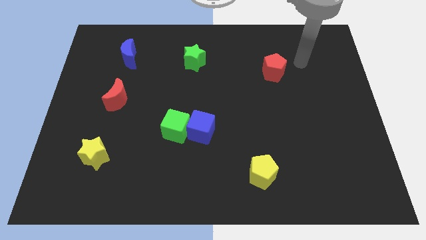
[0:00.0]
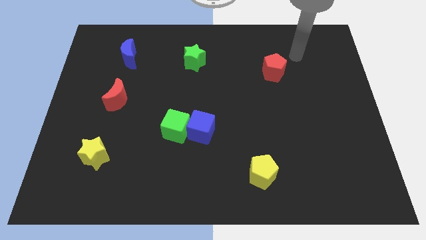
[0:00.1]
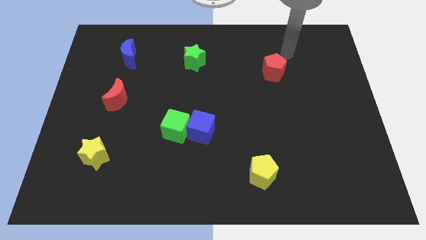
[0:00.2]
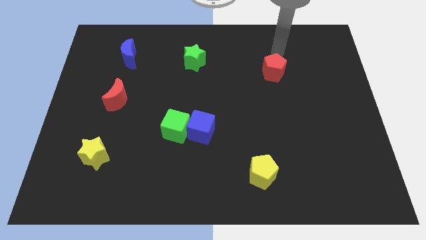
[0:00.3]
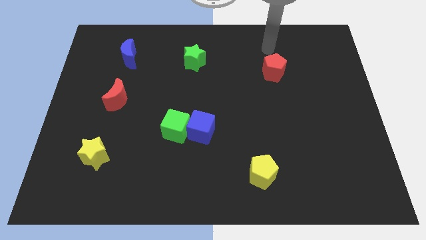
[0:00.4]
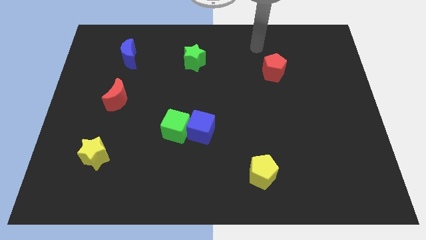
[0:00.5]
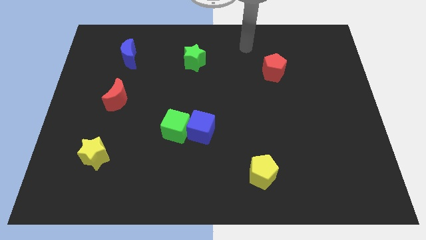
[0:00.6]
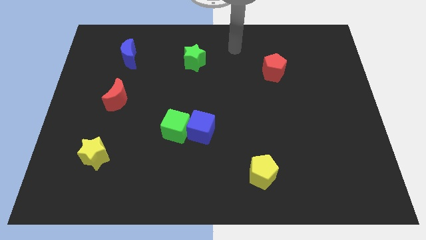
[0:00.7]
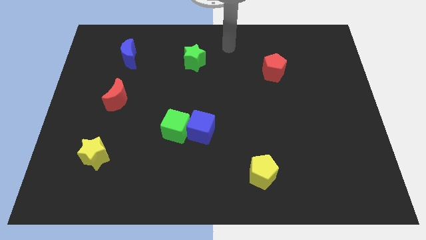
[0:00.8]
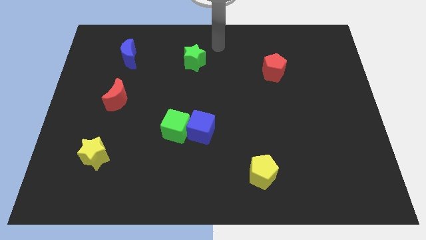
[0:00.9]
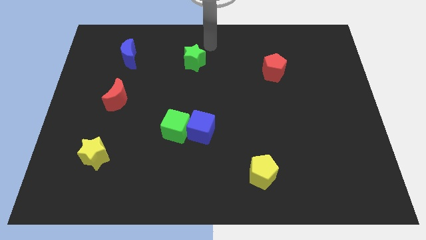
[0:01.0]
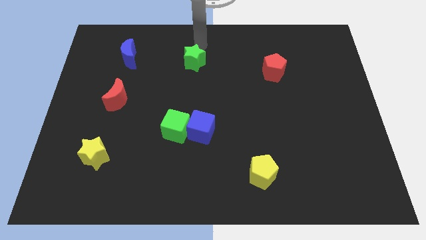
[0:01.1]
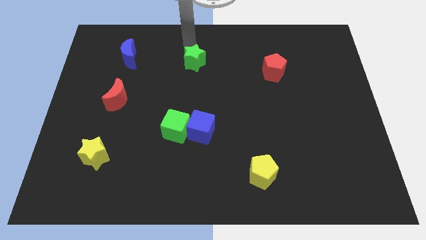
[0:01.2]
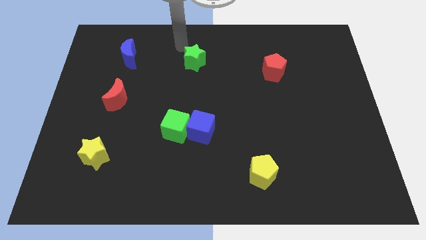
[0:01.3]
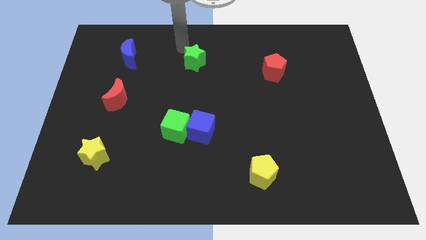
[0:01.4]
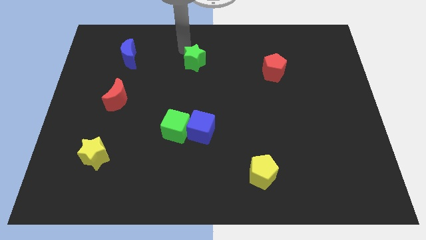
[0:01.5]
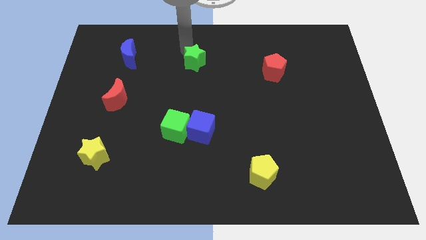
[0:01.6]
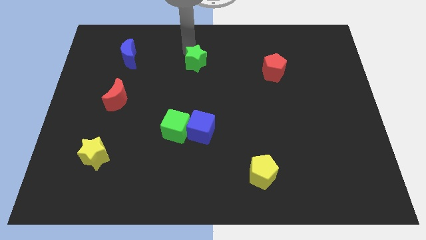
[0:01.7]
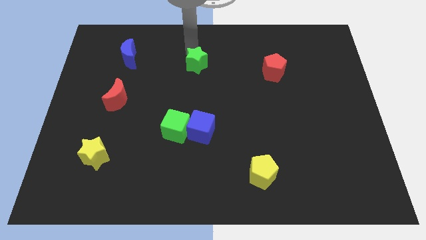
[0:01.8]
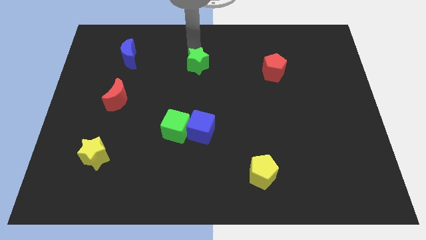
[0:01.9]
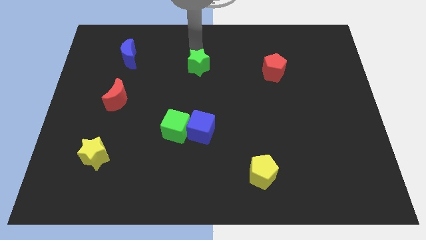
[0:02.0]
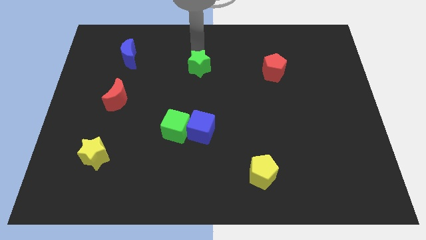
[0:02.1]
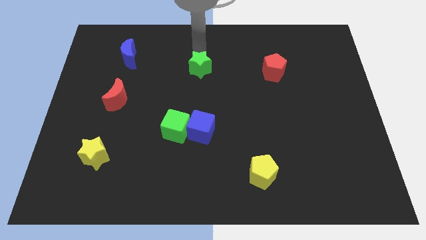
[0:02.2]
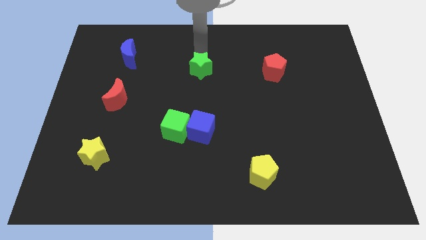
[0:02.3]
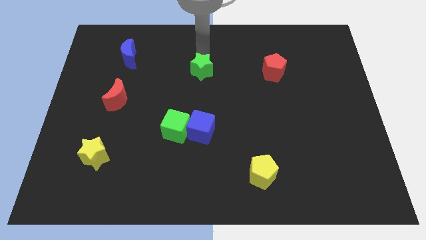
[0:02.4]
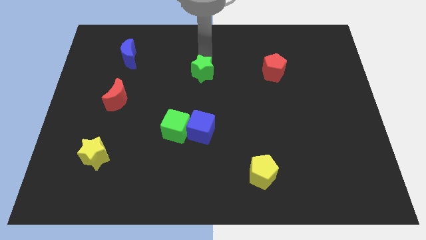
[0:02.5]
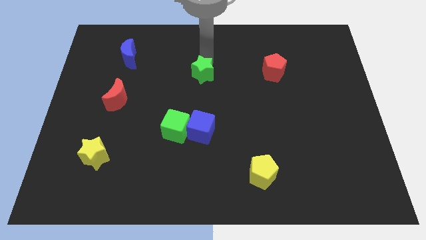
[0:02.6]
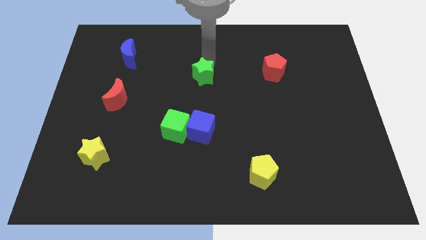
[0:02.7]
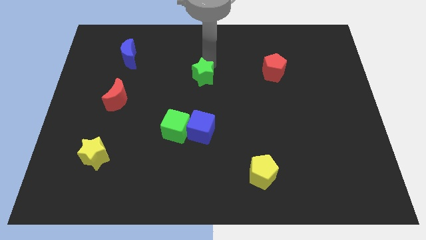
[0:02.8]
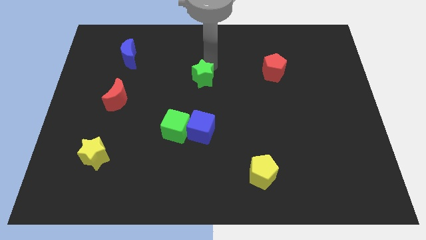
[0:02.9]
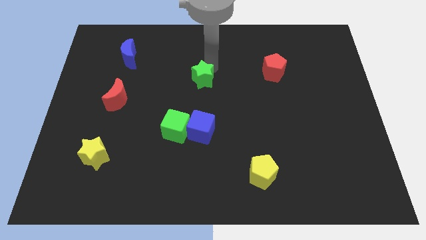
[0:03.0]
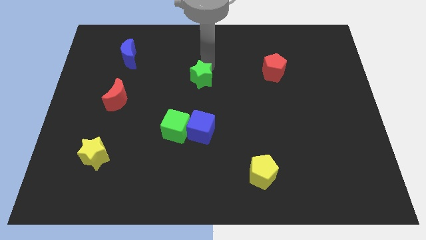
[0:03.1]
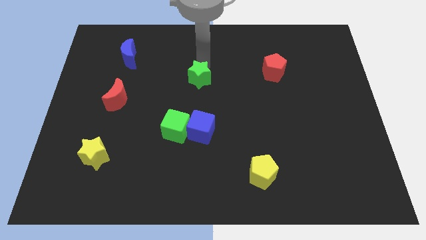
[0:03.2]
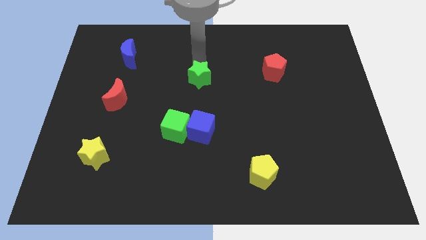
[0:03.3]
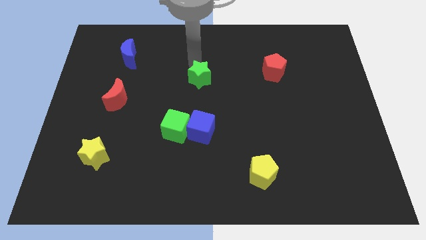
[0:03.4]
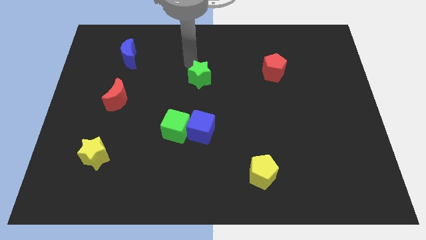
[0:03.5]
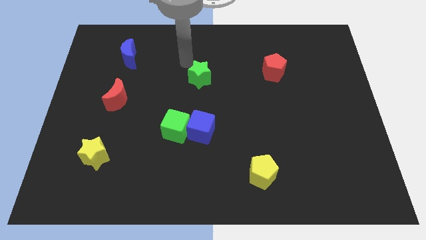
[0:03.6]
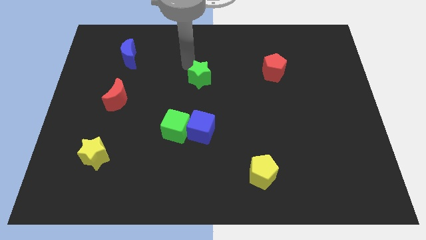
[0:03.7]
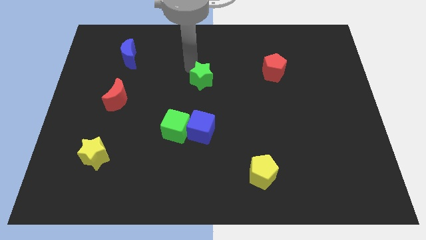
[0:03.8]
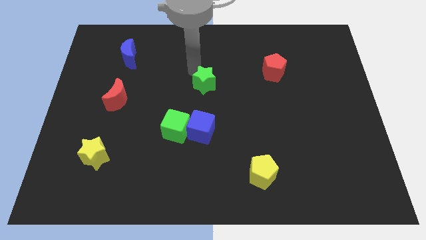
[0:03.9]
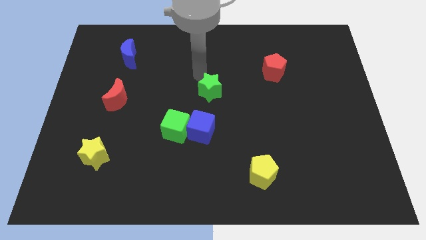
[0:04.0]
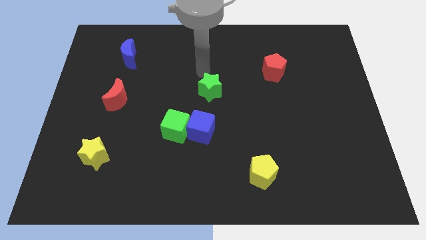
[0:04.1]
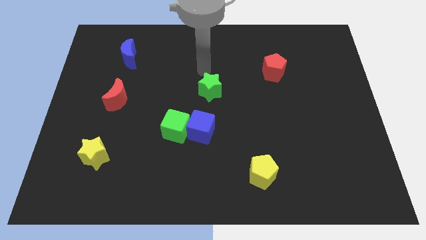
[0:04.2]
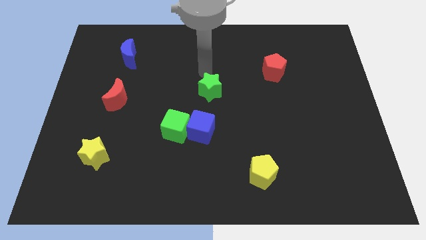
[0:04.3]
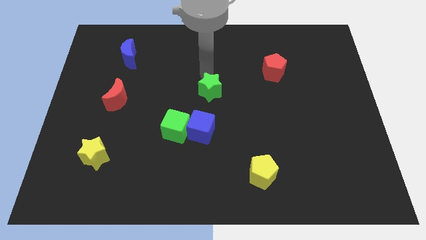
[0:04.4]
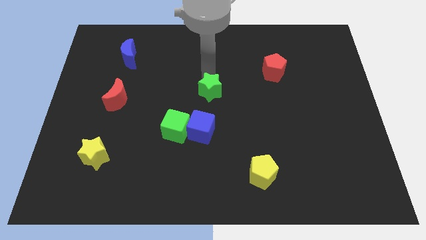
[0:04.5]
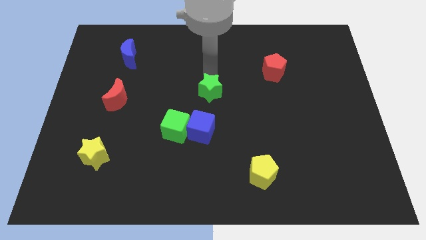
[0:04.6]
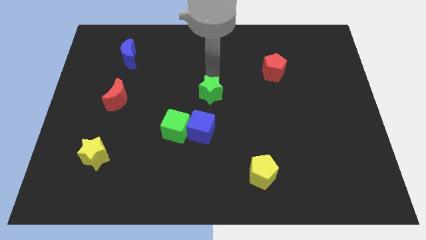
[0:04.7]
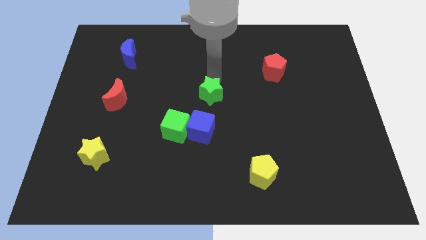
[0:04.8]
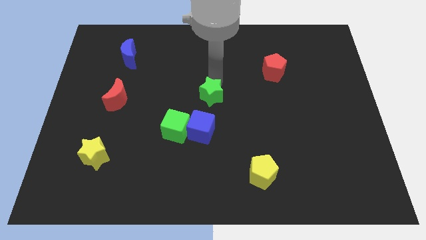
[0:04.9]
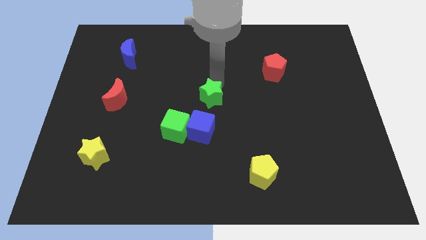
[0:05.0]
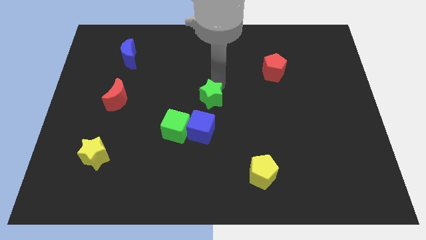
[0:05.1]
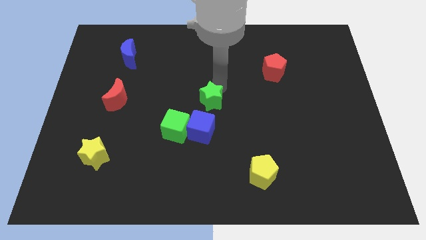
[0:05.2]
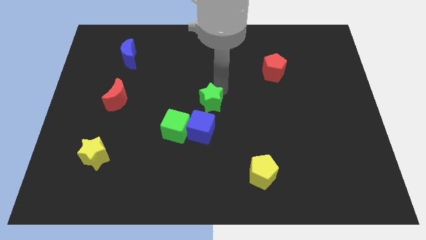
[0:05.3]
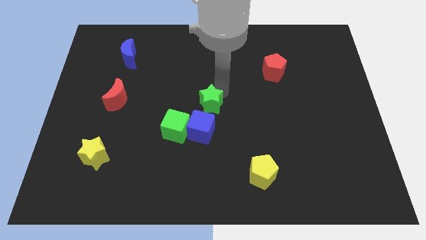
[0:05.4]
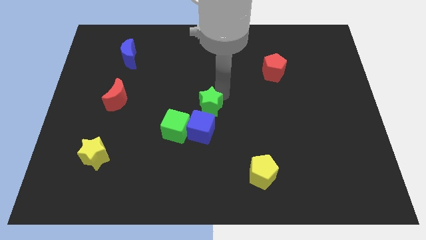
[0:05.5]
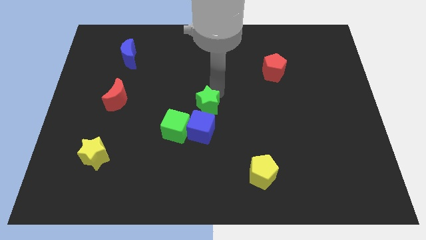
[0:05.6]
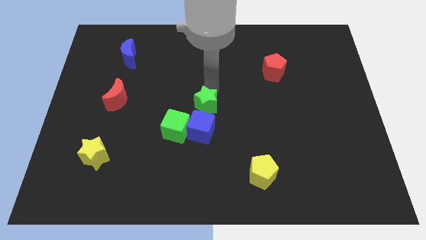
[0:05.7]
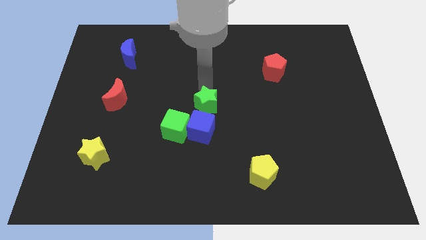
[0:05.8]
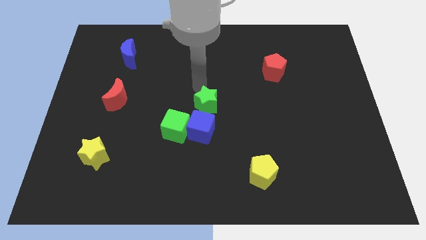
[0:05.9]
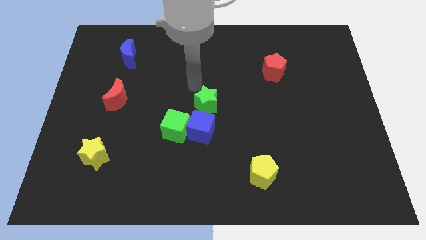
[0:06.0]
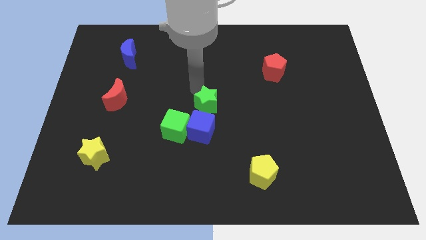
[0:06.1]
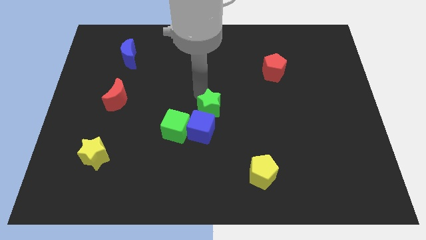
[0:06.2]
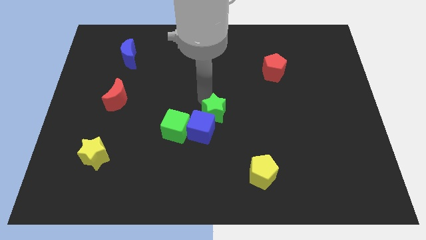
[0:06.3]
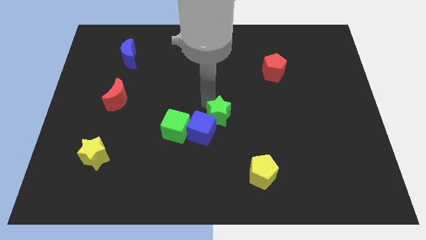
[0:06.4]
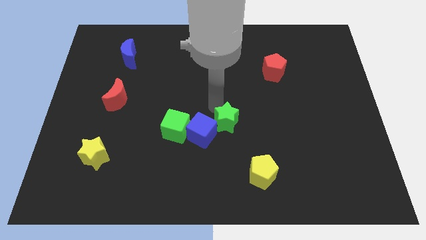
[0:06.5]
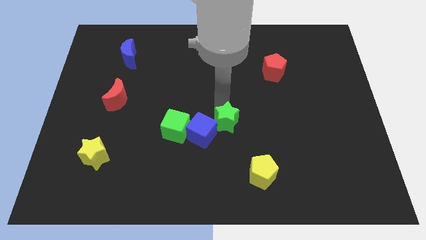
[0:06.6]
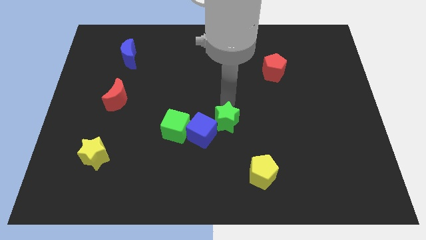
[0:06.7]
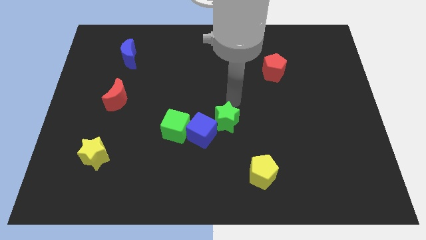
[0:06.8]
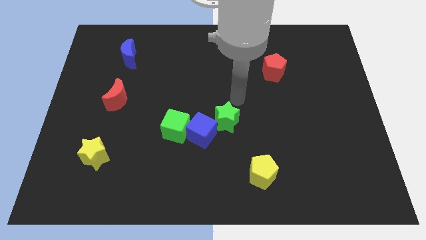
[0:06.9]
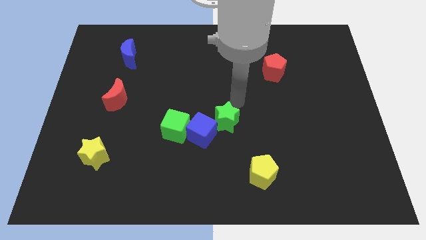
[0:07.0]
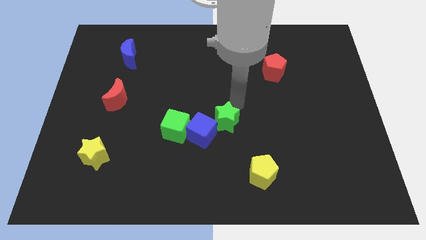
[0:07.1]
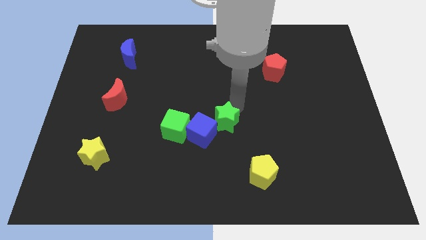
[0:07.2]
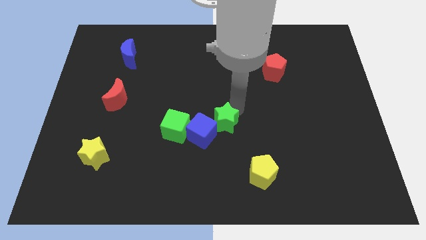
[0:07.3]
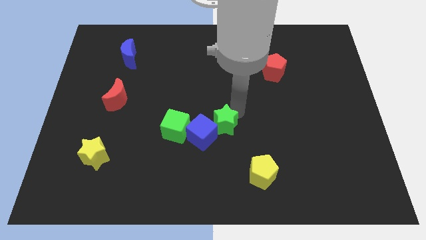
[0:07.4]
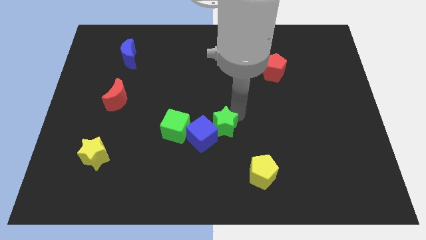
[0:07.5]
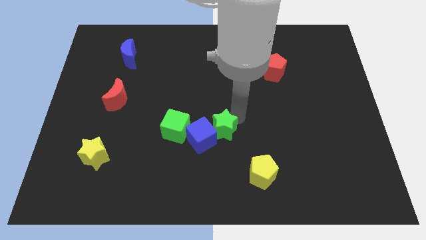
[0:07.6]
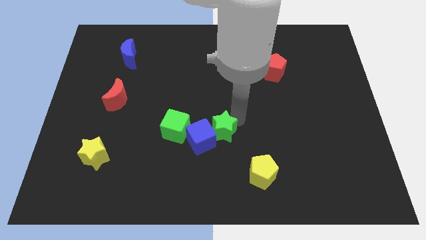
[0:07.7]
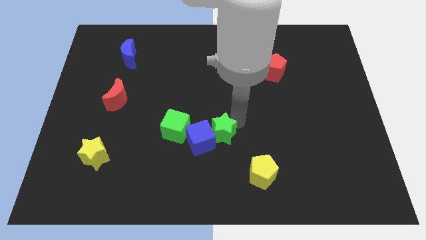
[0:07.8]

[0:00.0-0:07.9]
slide the green star downwards
